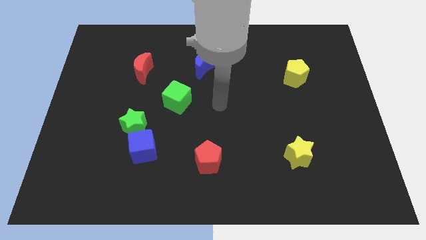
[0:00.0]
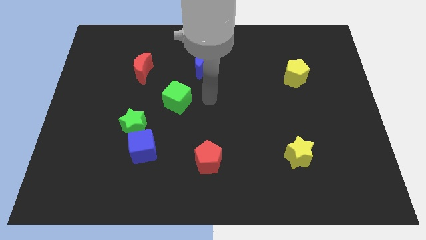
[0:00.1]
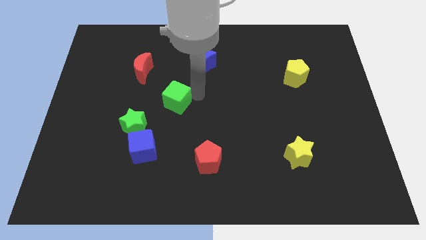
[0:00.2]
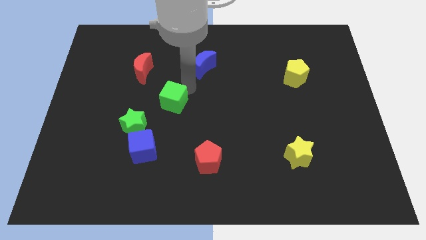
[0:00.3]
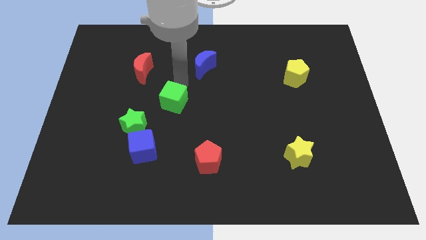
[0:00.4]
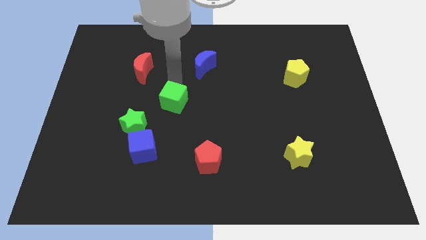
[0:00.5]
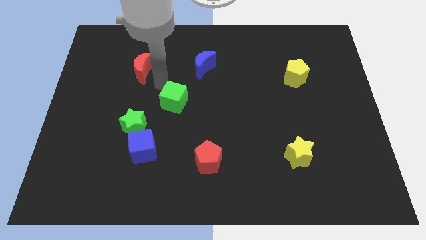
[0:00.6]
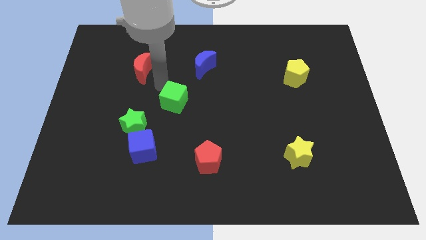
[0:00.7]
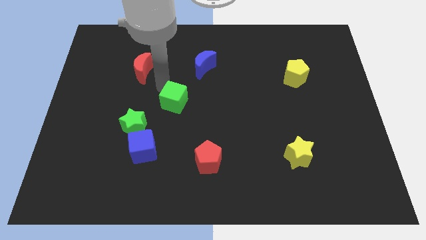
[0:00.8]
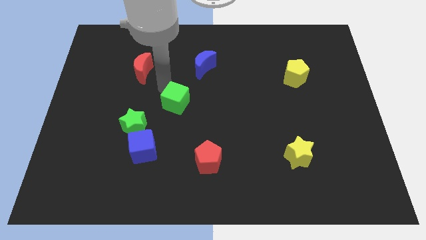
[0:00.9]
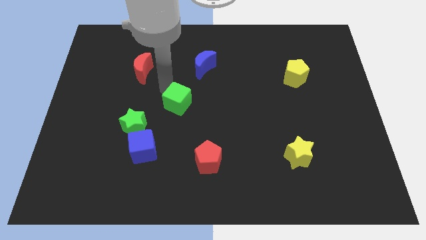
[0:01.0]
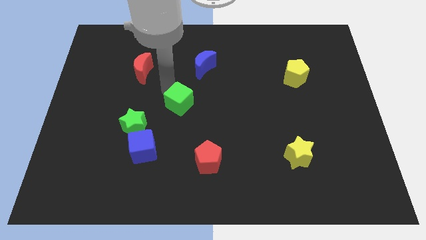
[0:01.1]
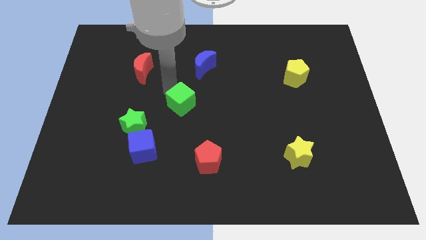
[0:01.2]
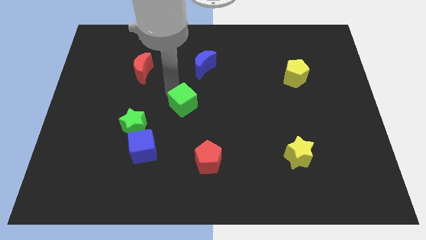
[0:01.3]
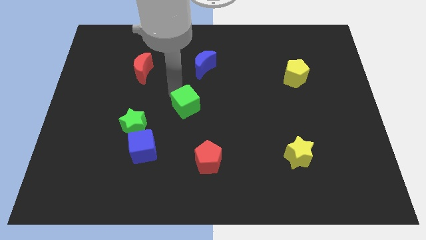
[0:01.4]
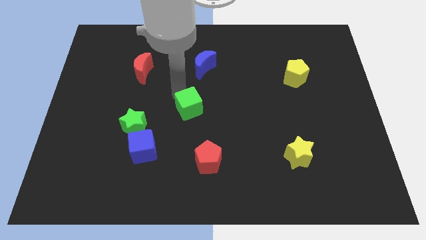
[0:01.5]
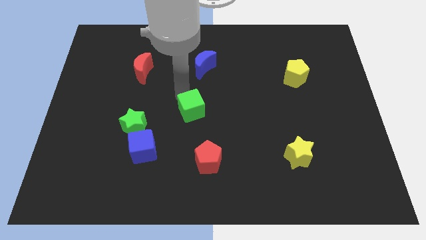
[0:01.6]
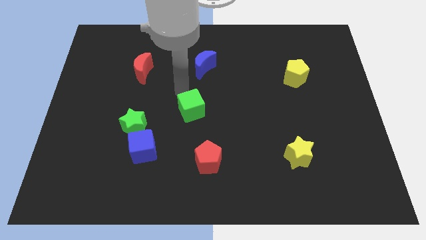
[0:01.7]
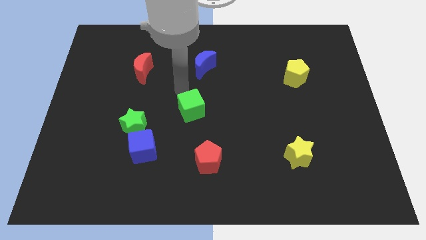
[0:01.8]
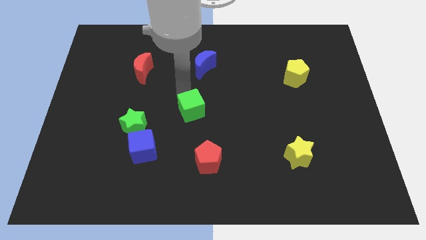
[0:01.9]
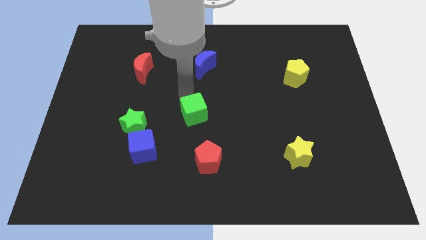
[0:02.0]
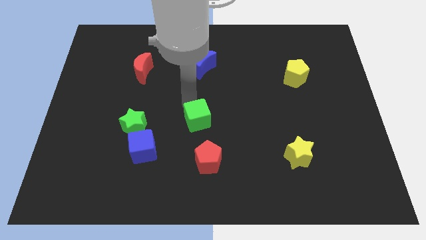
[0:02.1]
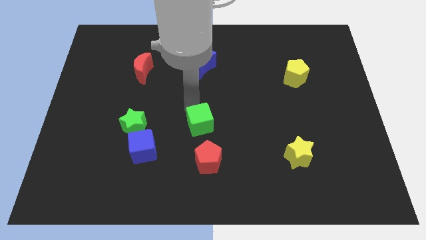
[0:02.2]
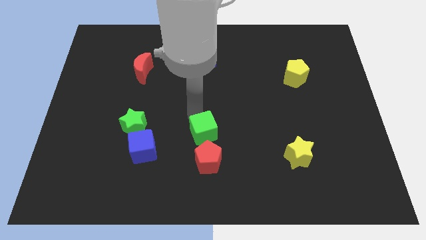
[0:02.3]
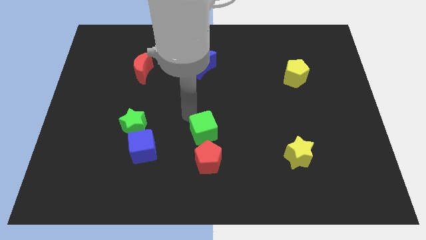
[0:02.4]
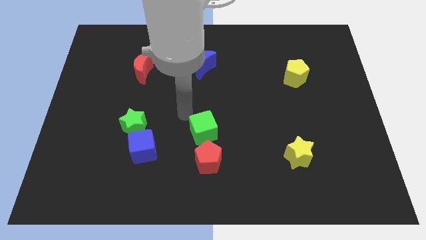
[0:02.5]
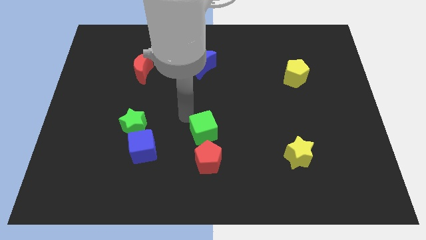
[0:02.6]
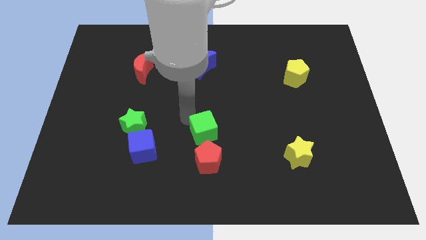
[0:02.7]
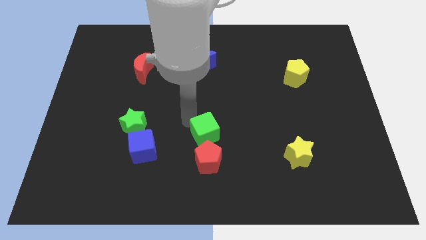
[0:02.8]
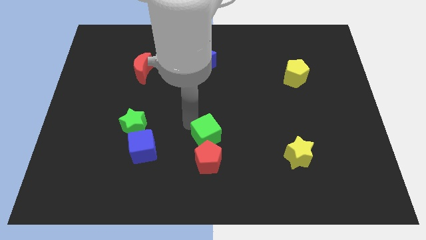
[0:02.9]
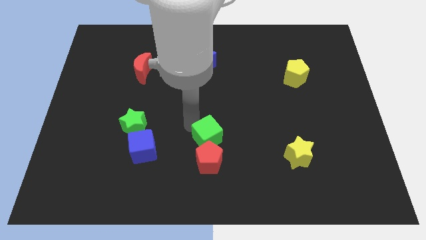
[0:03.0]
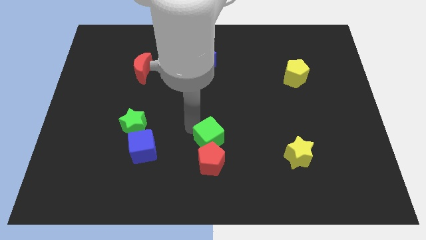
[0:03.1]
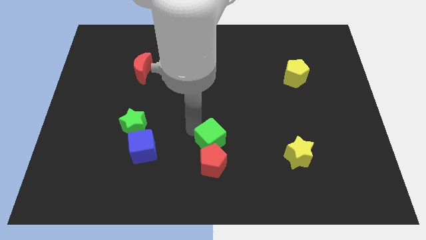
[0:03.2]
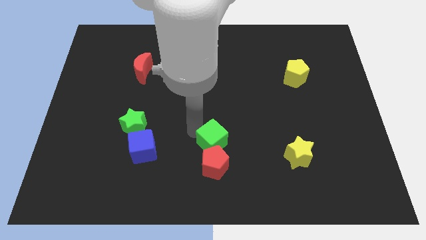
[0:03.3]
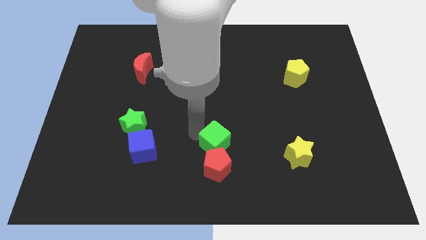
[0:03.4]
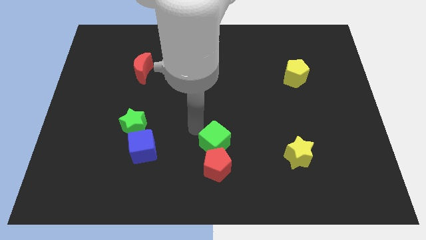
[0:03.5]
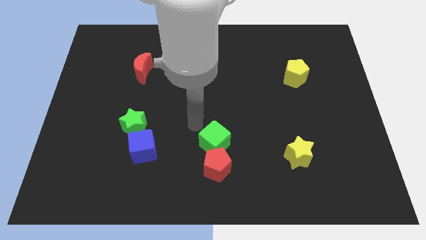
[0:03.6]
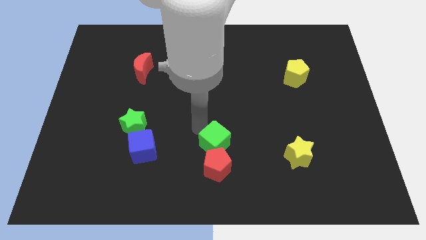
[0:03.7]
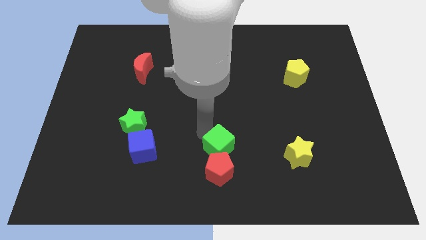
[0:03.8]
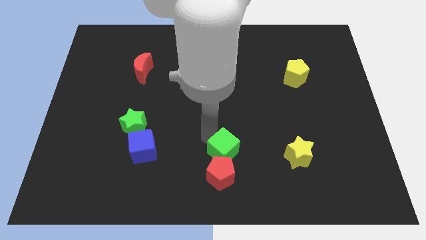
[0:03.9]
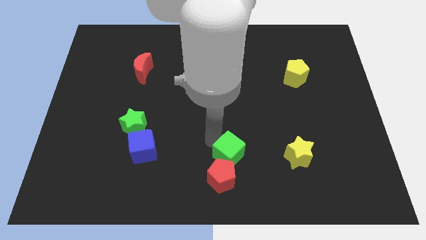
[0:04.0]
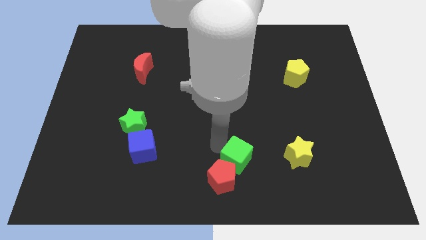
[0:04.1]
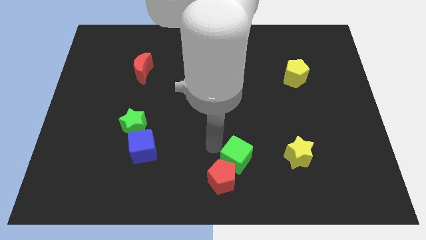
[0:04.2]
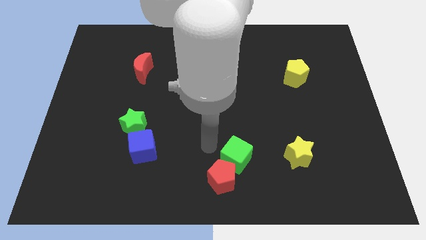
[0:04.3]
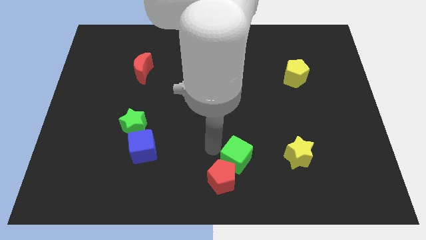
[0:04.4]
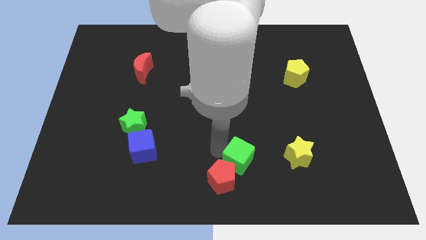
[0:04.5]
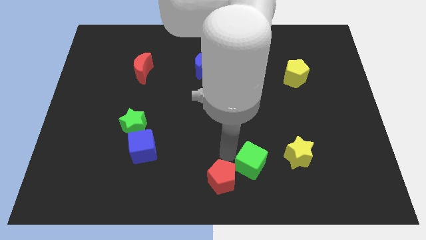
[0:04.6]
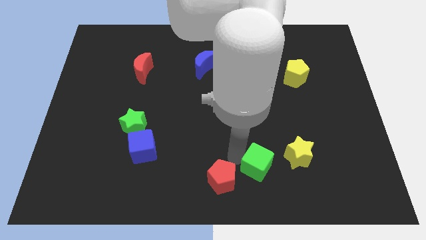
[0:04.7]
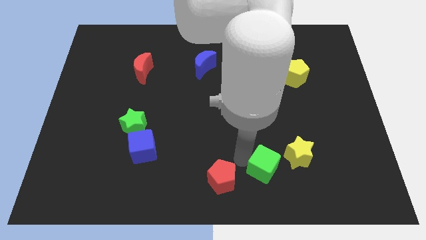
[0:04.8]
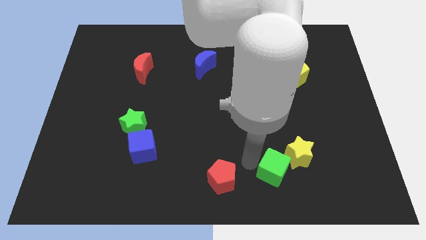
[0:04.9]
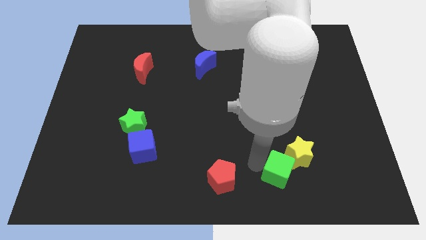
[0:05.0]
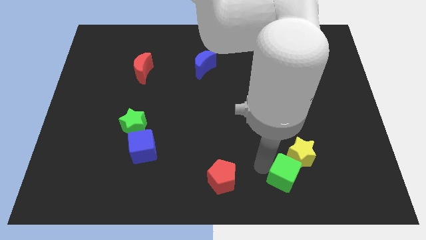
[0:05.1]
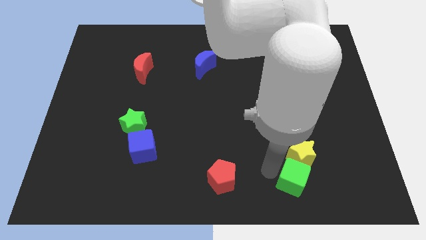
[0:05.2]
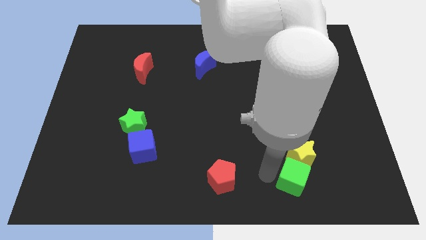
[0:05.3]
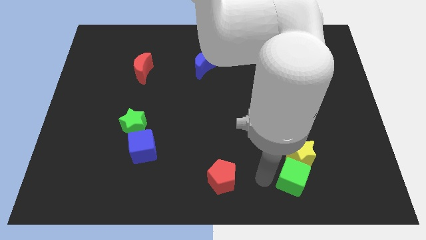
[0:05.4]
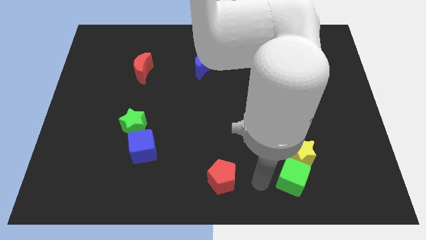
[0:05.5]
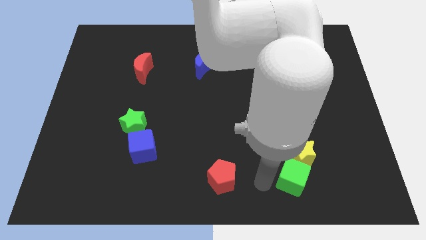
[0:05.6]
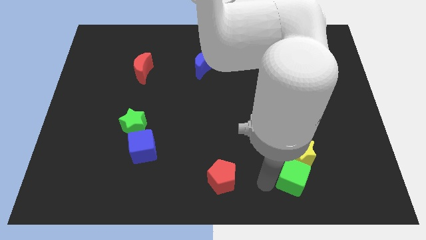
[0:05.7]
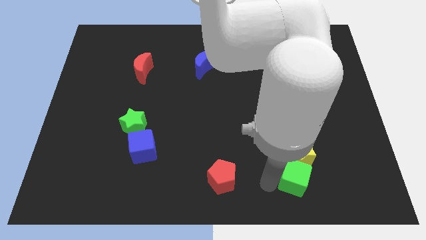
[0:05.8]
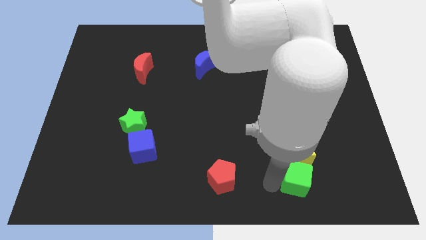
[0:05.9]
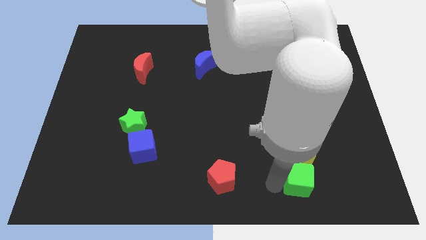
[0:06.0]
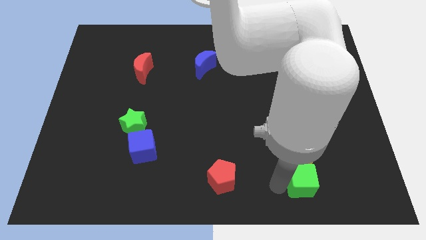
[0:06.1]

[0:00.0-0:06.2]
put the green cube to the bottom right of the yellow star

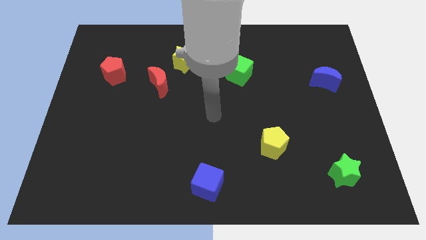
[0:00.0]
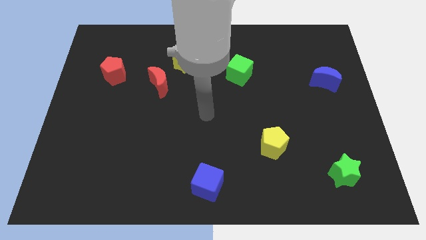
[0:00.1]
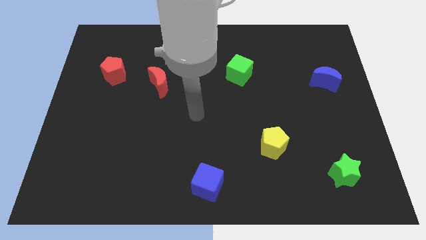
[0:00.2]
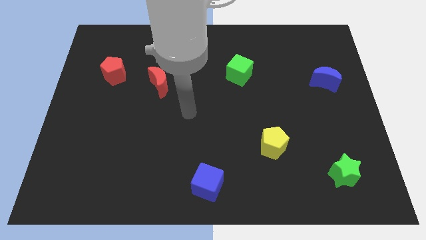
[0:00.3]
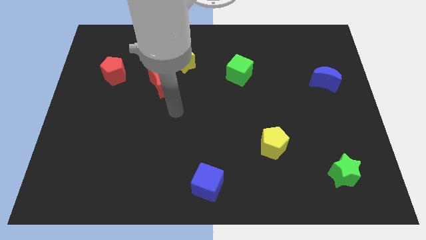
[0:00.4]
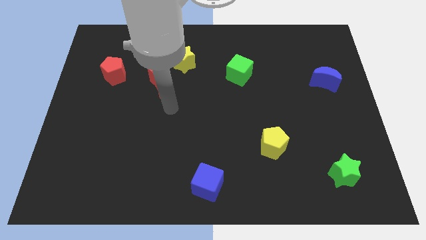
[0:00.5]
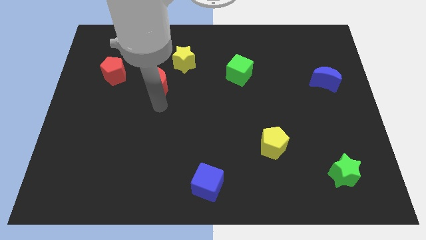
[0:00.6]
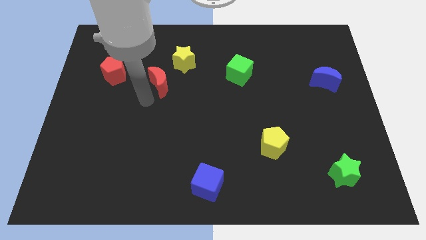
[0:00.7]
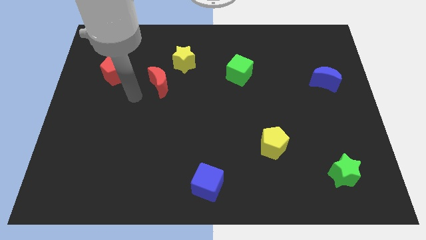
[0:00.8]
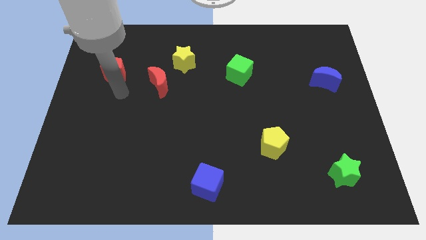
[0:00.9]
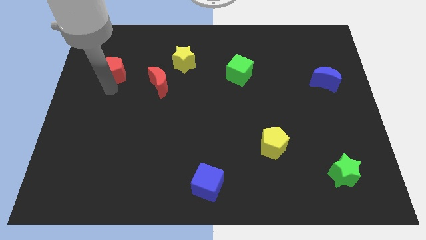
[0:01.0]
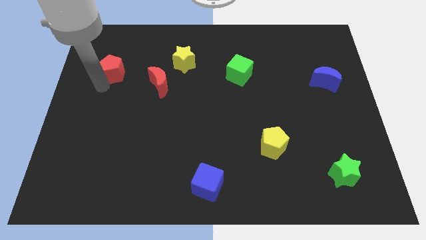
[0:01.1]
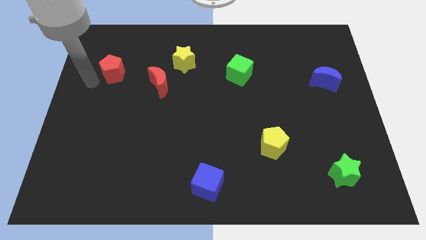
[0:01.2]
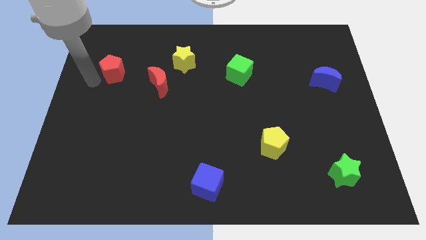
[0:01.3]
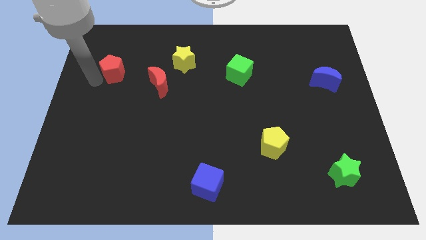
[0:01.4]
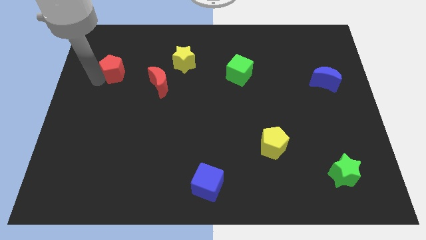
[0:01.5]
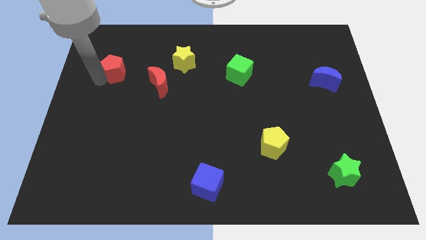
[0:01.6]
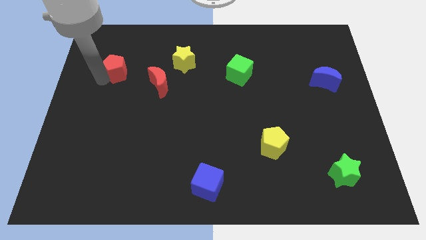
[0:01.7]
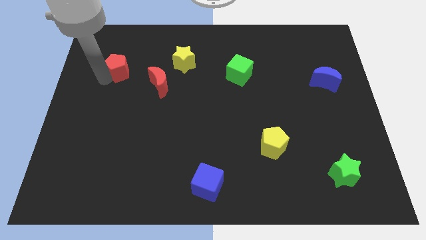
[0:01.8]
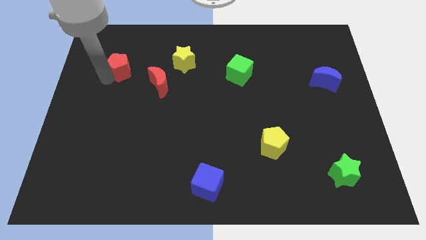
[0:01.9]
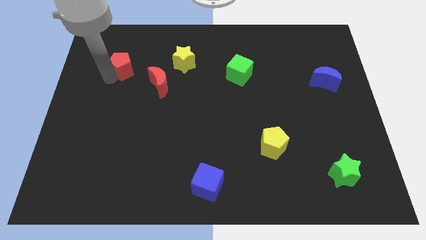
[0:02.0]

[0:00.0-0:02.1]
move the red pentagon to the left of the yellow star
